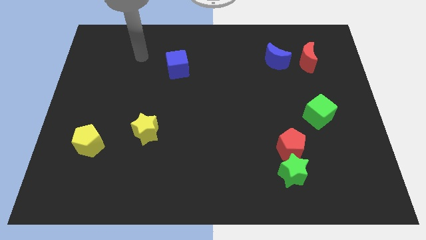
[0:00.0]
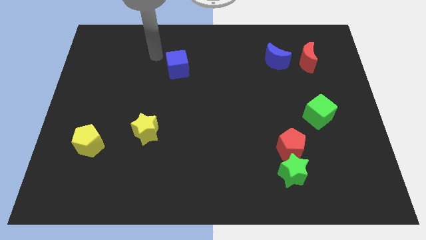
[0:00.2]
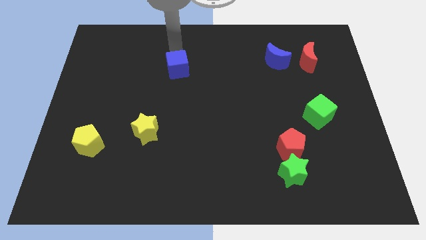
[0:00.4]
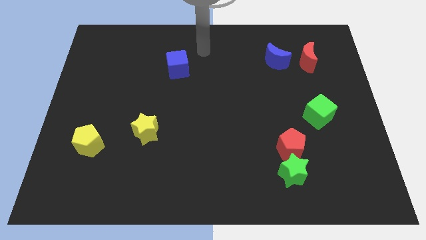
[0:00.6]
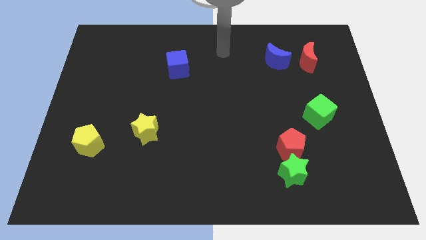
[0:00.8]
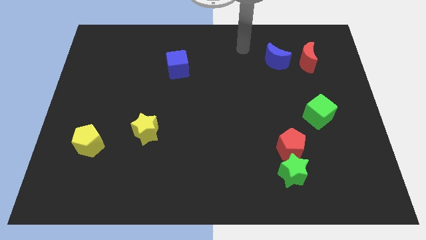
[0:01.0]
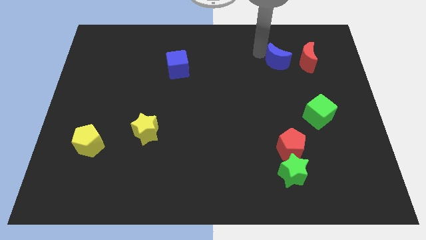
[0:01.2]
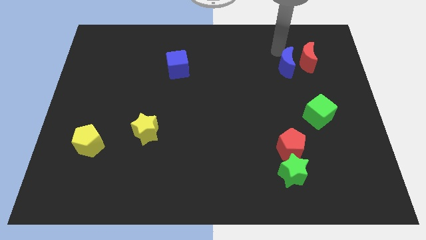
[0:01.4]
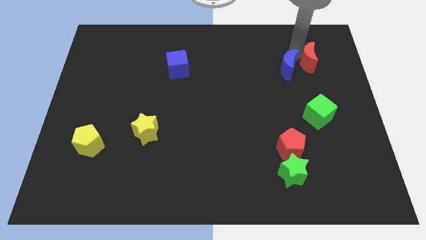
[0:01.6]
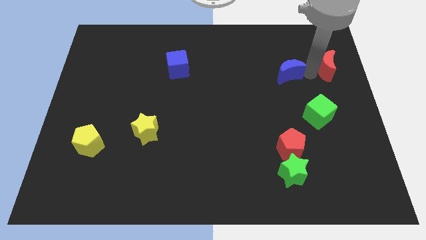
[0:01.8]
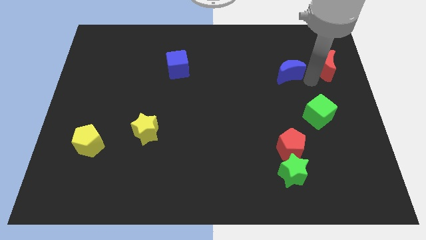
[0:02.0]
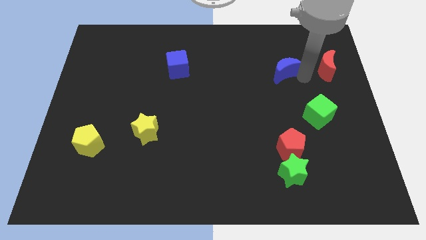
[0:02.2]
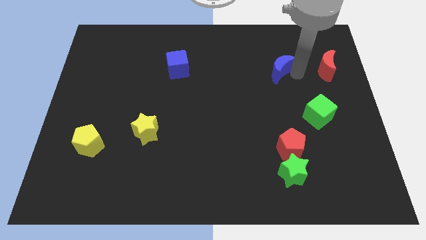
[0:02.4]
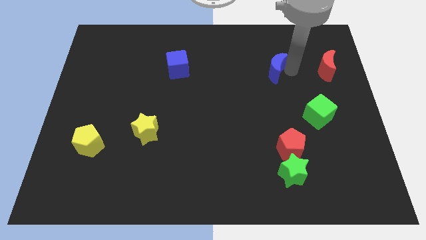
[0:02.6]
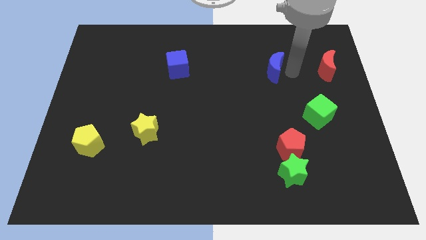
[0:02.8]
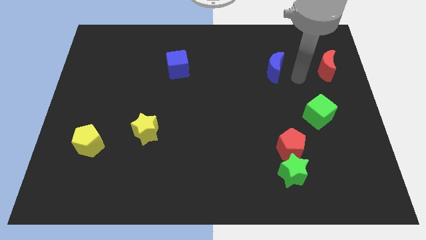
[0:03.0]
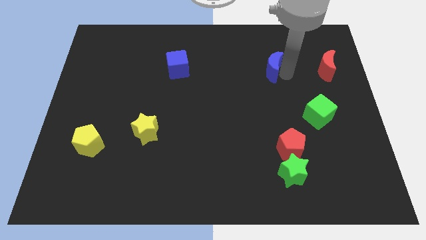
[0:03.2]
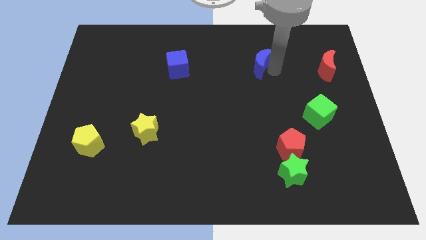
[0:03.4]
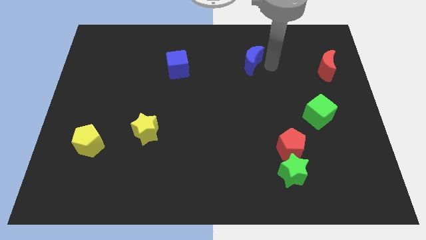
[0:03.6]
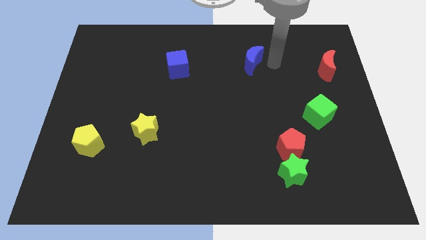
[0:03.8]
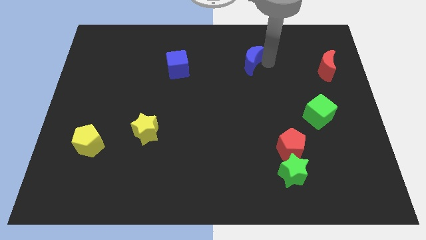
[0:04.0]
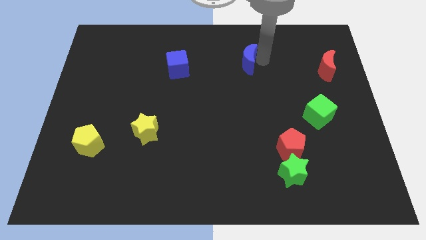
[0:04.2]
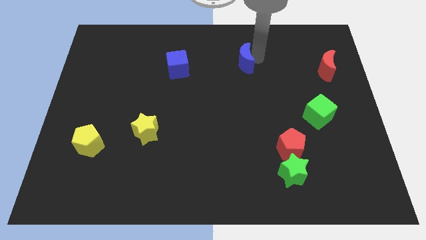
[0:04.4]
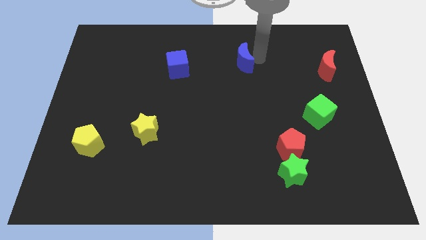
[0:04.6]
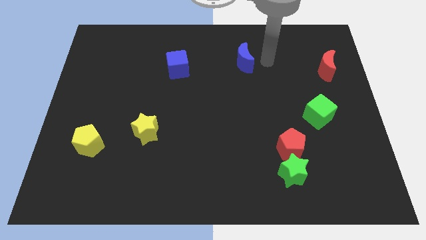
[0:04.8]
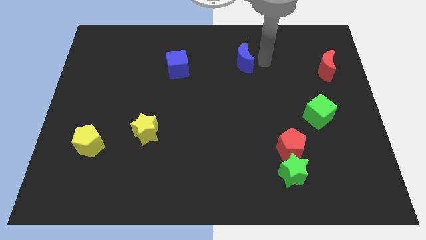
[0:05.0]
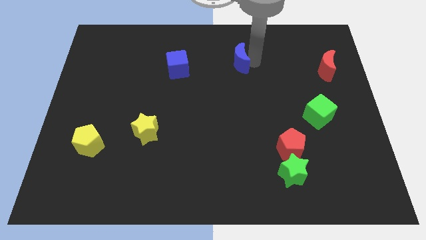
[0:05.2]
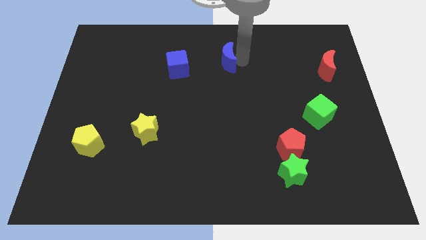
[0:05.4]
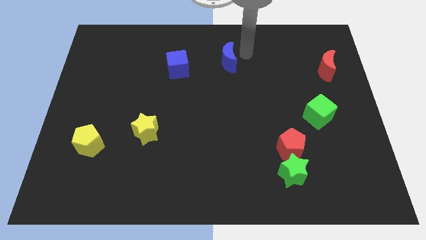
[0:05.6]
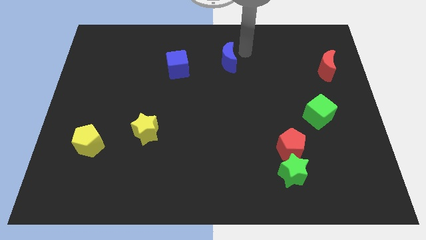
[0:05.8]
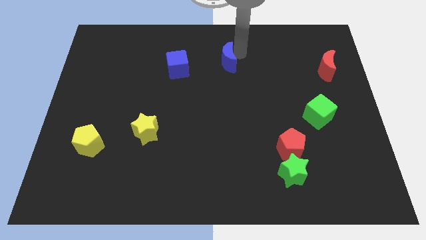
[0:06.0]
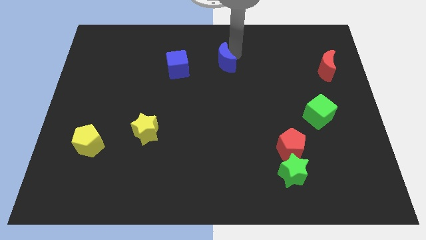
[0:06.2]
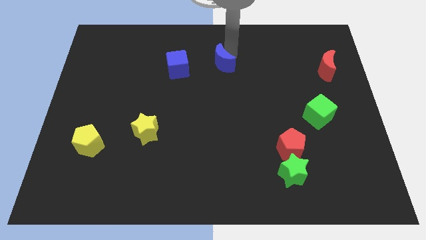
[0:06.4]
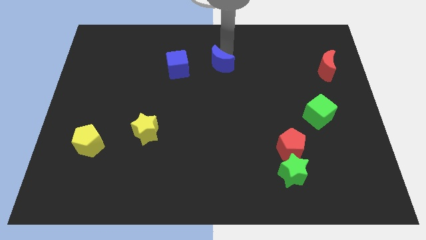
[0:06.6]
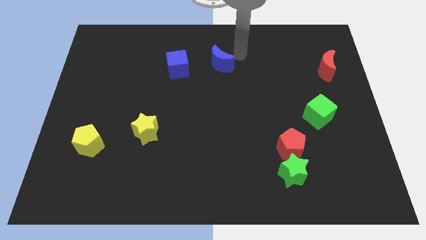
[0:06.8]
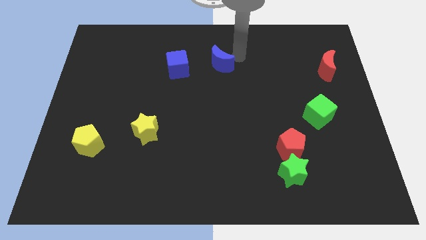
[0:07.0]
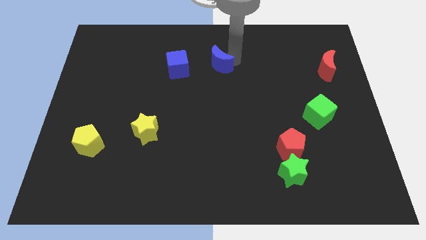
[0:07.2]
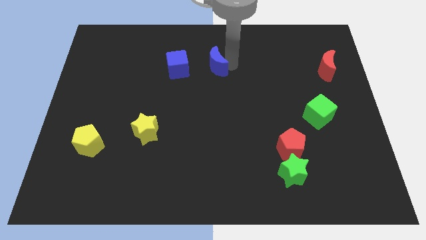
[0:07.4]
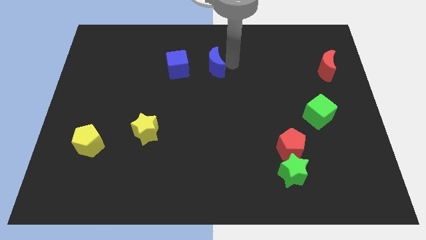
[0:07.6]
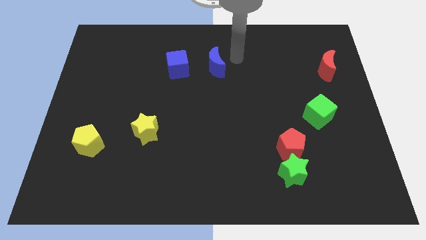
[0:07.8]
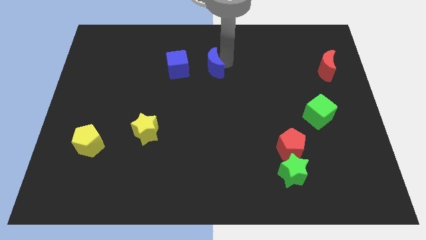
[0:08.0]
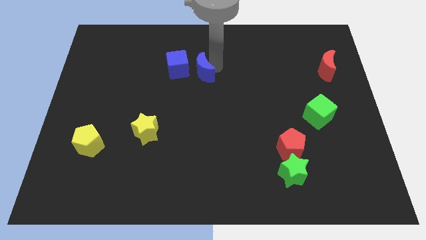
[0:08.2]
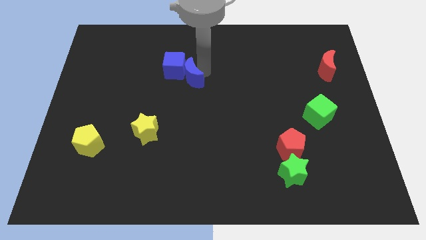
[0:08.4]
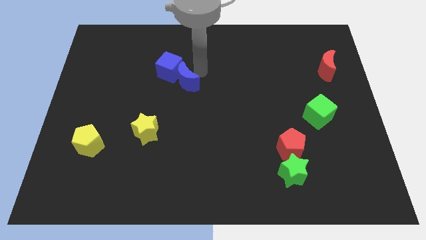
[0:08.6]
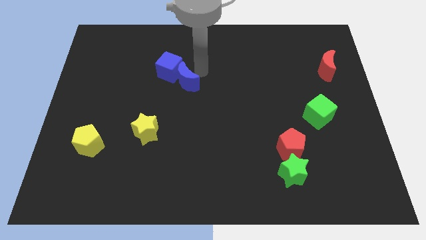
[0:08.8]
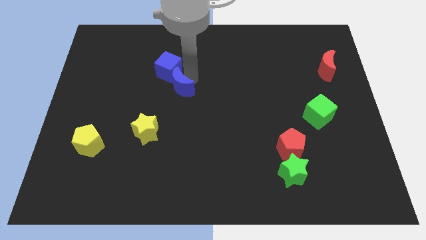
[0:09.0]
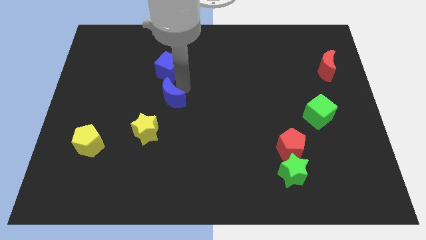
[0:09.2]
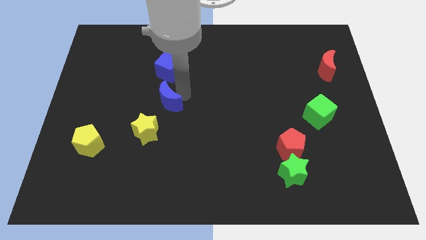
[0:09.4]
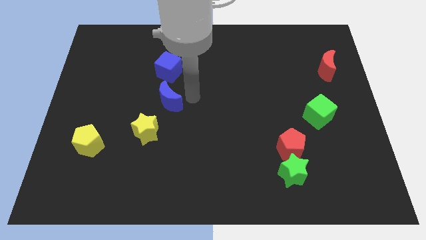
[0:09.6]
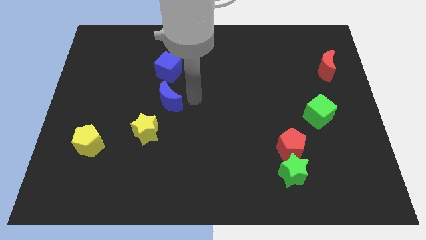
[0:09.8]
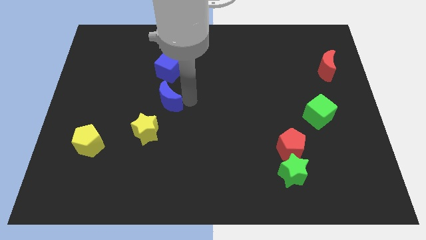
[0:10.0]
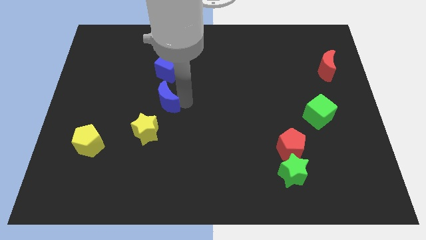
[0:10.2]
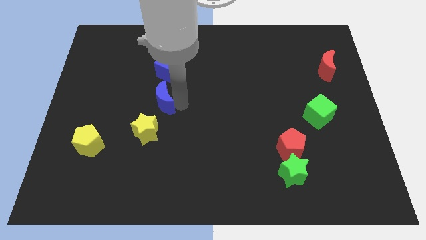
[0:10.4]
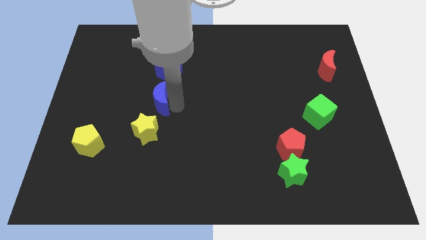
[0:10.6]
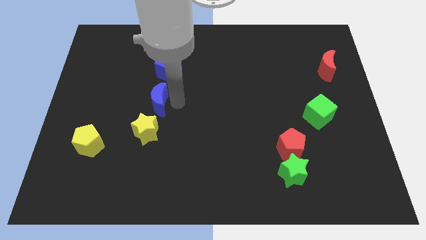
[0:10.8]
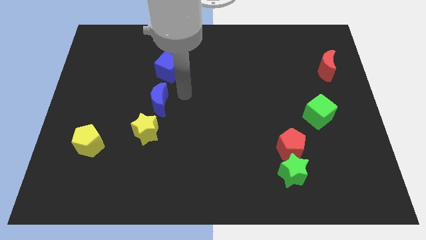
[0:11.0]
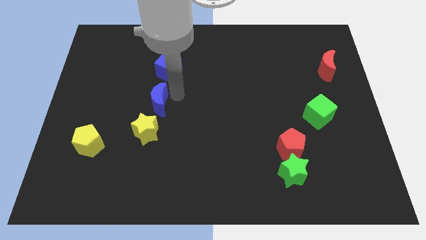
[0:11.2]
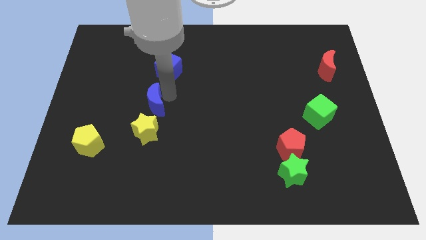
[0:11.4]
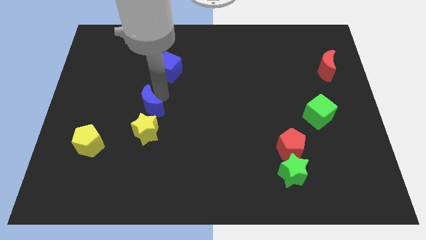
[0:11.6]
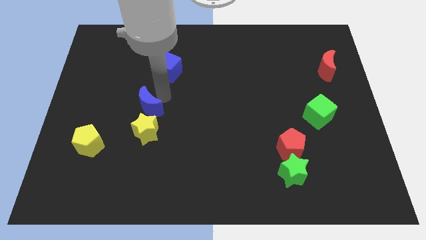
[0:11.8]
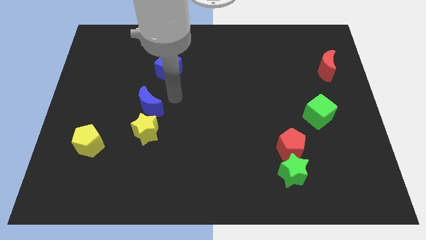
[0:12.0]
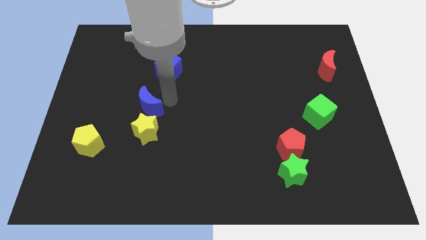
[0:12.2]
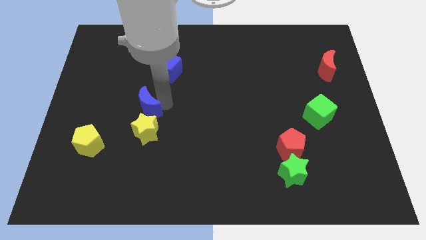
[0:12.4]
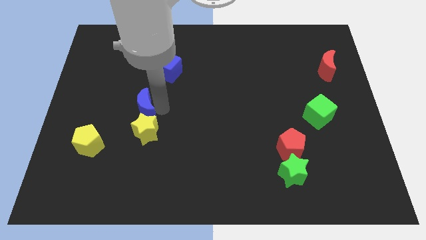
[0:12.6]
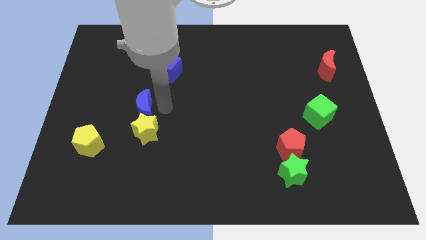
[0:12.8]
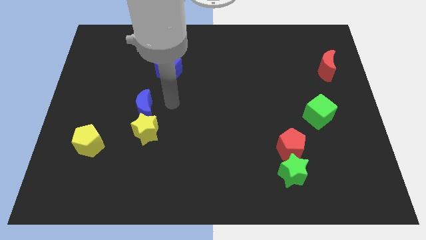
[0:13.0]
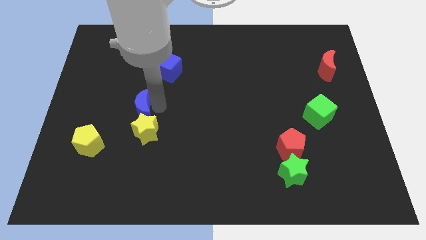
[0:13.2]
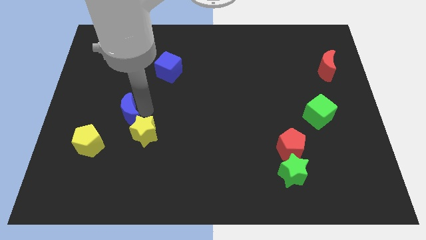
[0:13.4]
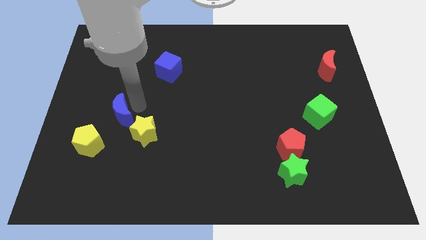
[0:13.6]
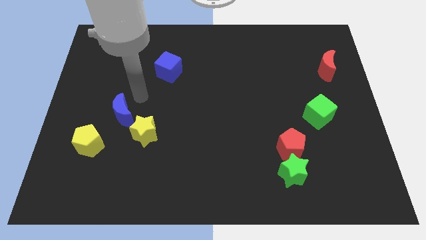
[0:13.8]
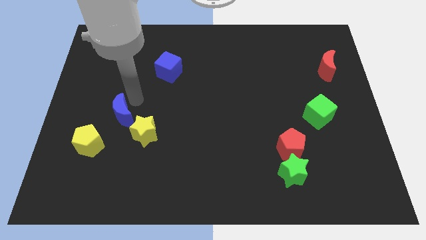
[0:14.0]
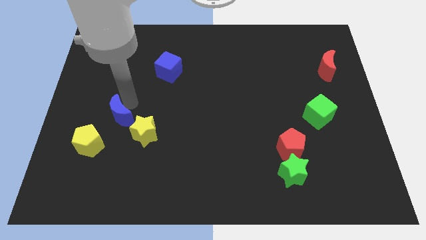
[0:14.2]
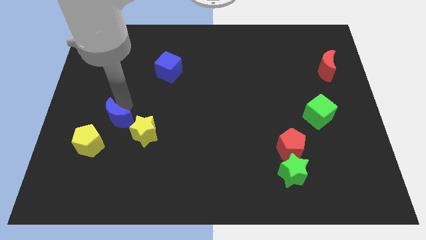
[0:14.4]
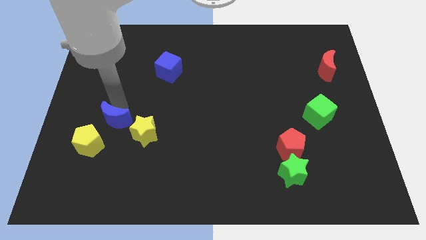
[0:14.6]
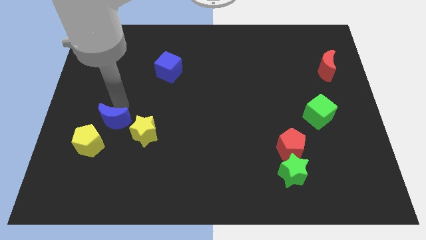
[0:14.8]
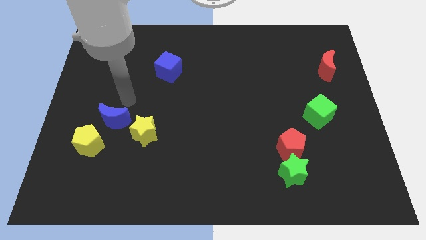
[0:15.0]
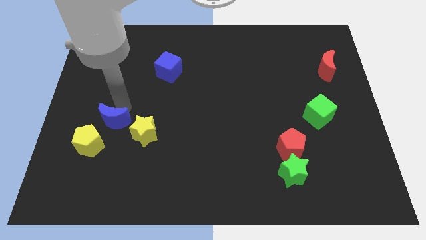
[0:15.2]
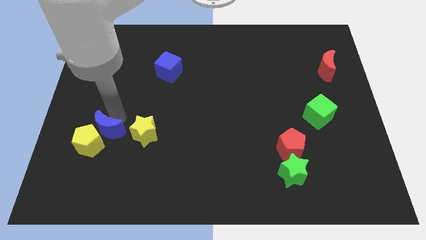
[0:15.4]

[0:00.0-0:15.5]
slide the blue moon close to the yellow pentagon

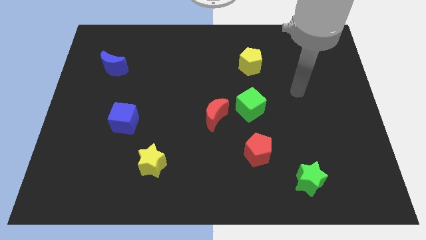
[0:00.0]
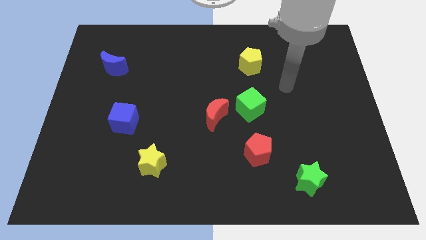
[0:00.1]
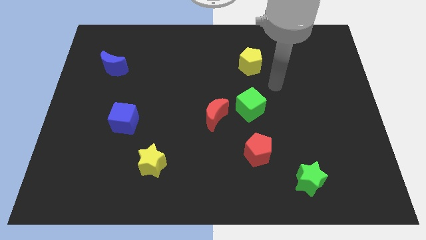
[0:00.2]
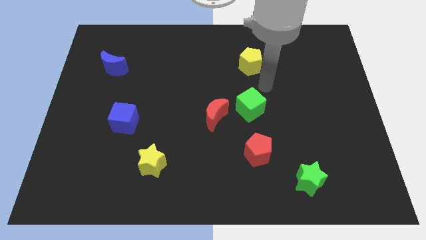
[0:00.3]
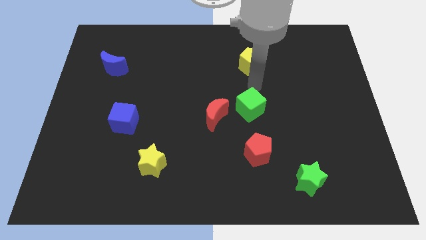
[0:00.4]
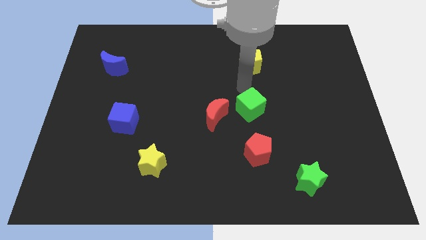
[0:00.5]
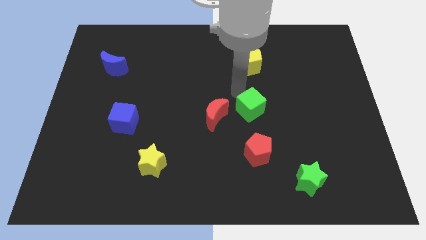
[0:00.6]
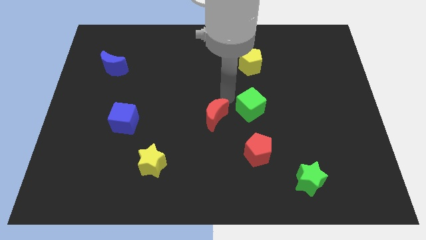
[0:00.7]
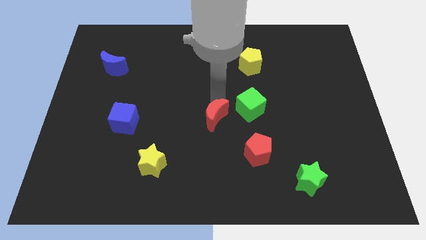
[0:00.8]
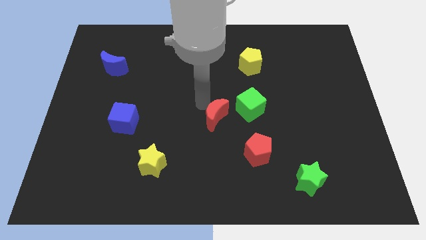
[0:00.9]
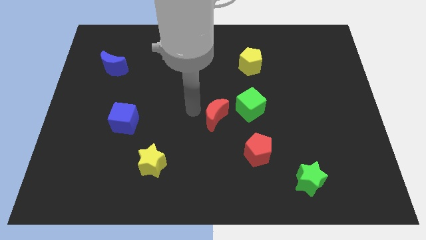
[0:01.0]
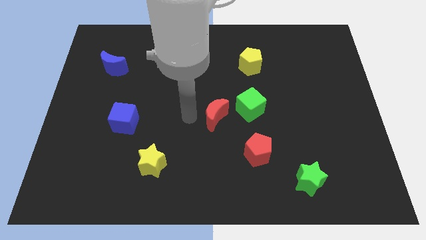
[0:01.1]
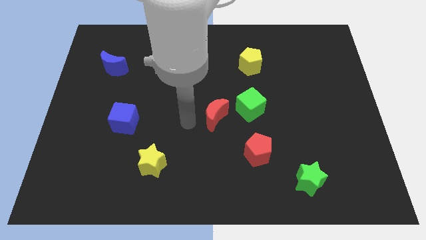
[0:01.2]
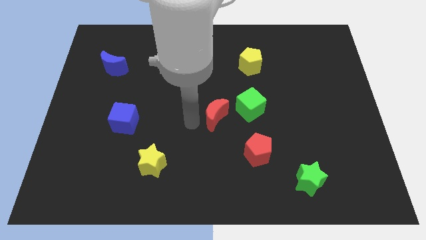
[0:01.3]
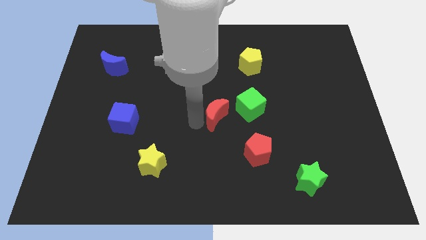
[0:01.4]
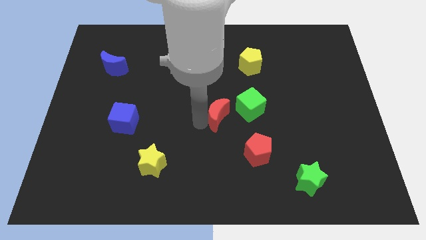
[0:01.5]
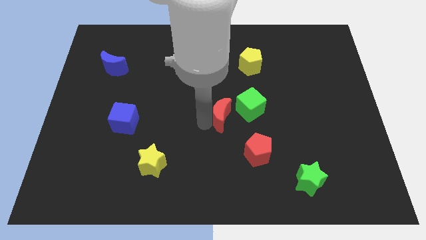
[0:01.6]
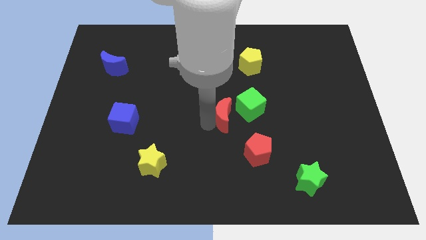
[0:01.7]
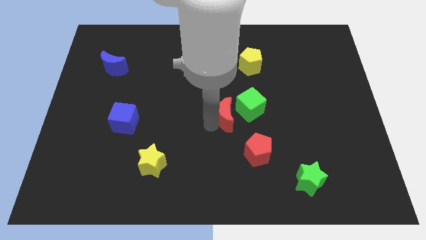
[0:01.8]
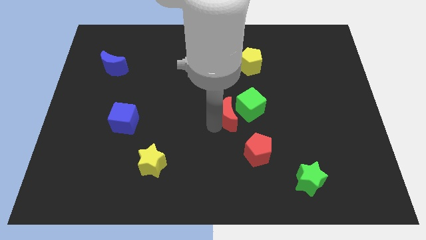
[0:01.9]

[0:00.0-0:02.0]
slide the red moon towards the green cube
